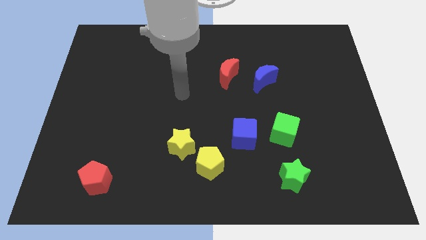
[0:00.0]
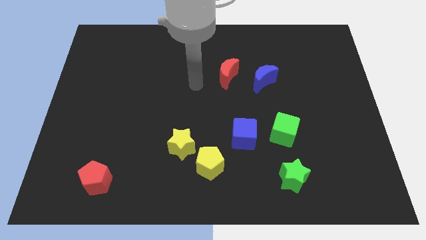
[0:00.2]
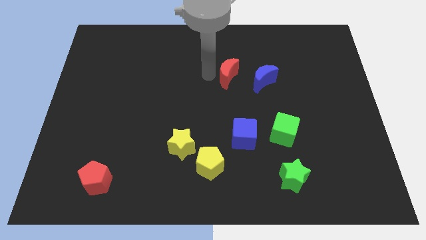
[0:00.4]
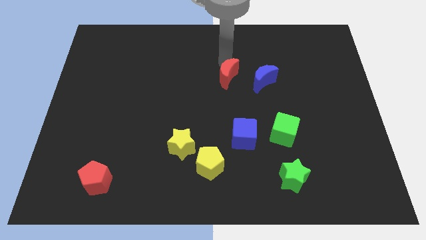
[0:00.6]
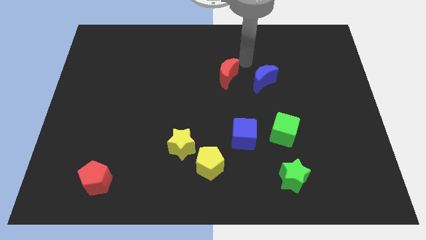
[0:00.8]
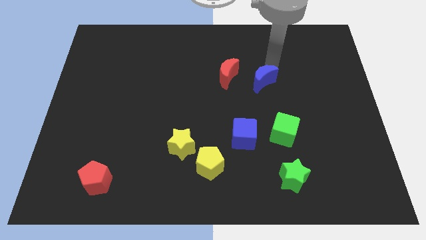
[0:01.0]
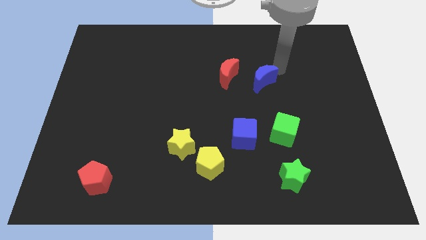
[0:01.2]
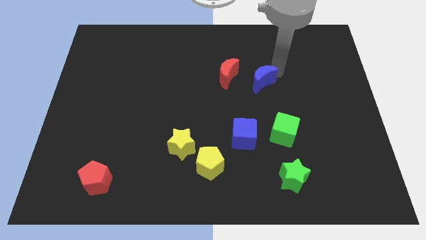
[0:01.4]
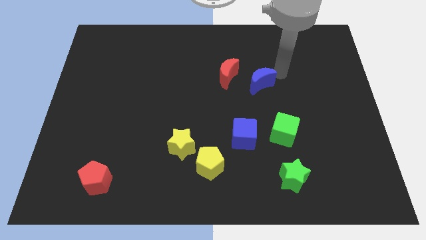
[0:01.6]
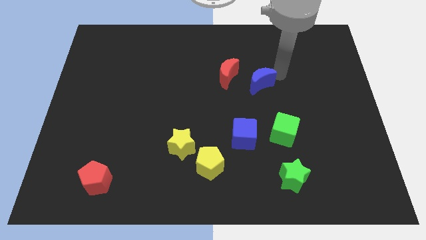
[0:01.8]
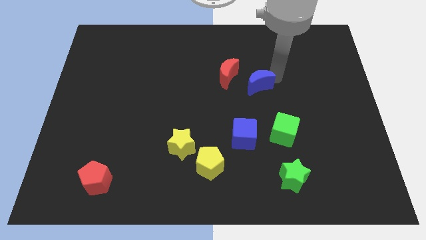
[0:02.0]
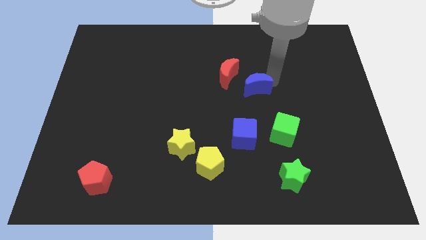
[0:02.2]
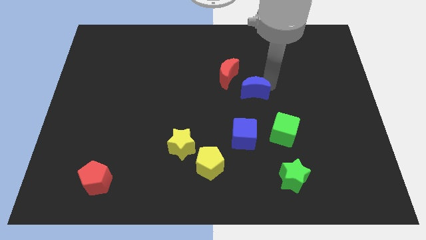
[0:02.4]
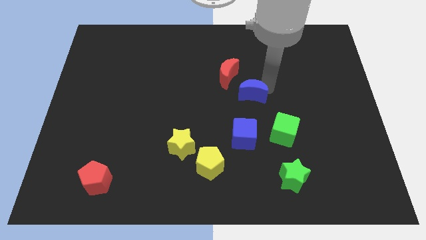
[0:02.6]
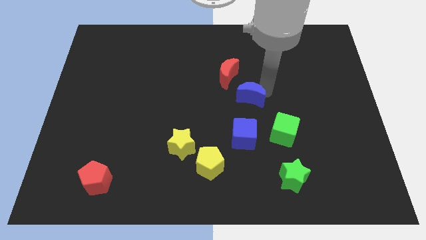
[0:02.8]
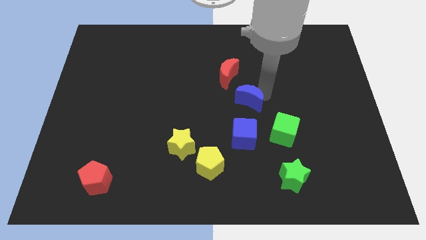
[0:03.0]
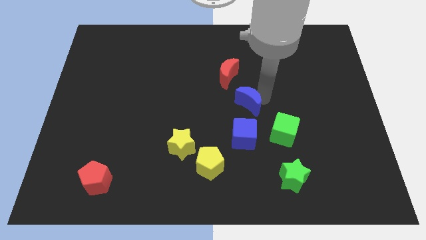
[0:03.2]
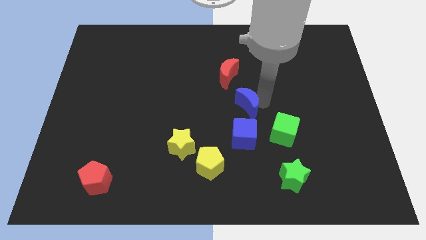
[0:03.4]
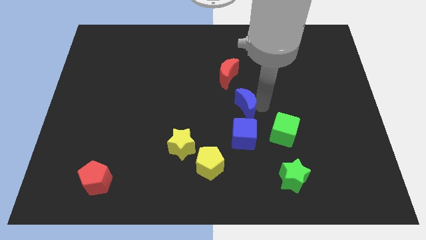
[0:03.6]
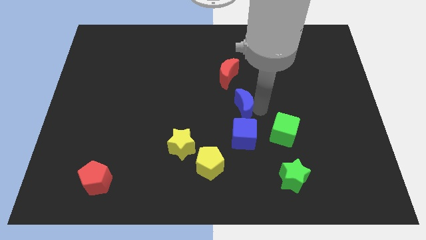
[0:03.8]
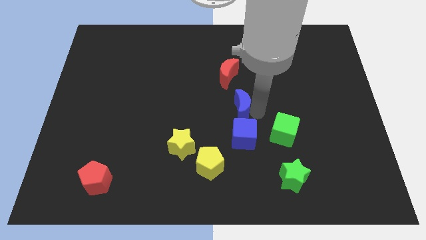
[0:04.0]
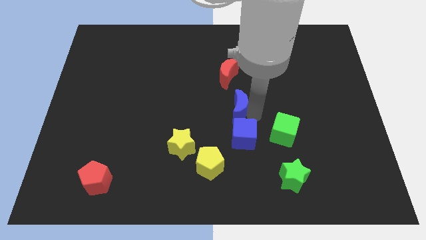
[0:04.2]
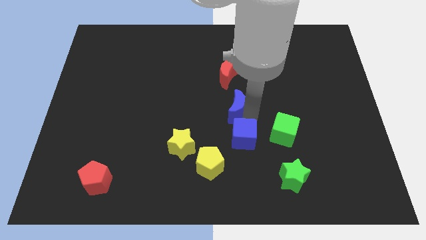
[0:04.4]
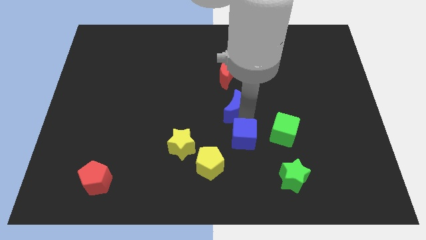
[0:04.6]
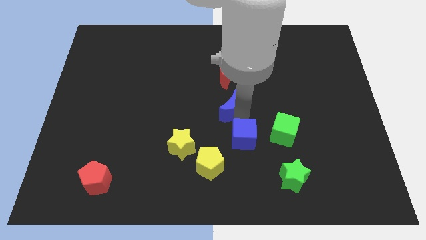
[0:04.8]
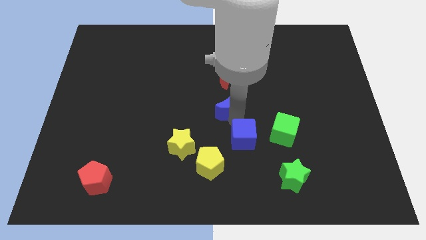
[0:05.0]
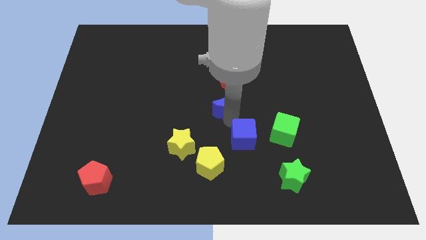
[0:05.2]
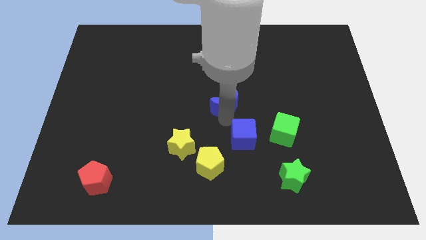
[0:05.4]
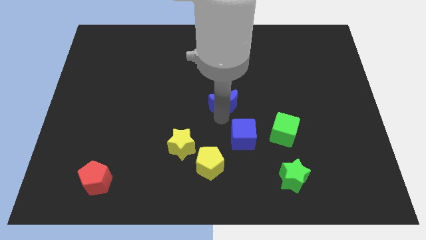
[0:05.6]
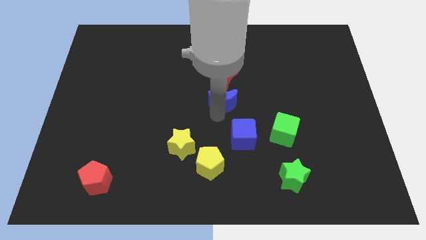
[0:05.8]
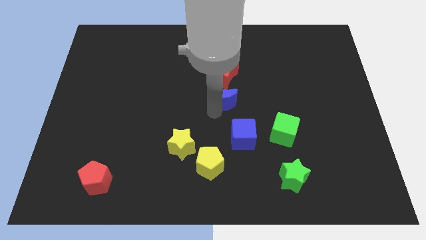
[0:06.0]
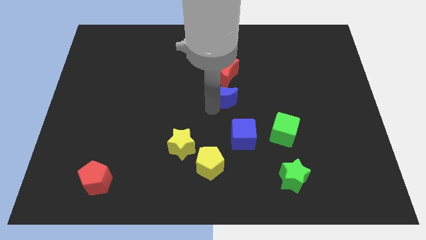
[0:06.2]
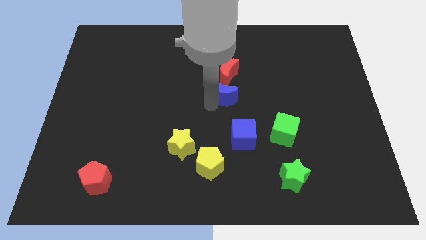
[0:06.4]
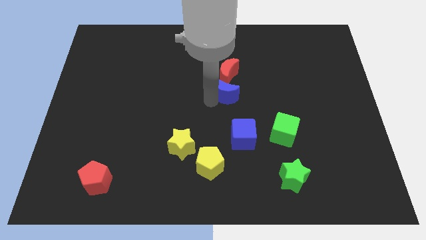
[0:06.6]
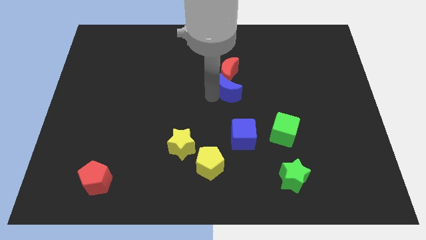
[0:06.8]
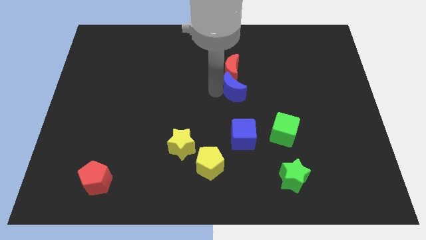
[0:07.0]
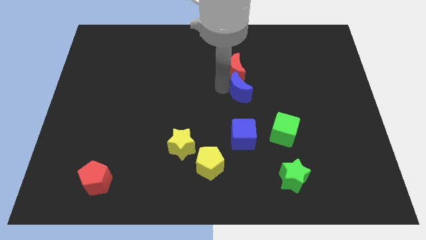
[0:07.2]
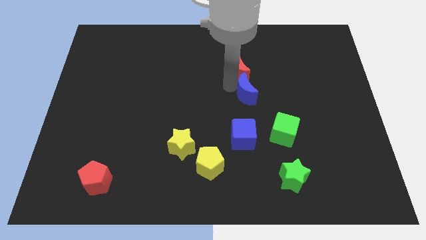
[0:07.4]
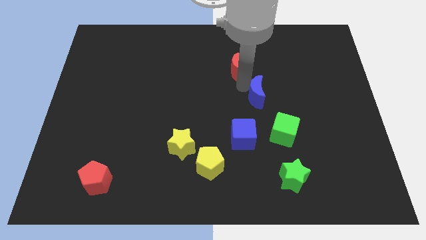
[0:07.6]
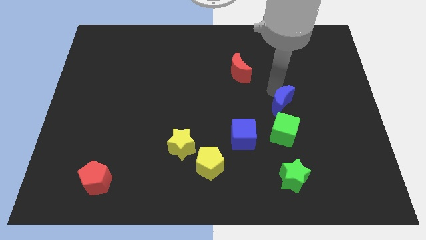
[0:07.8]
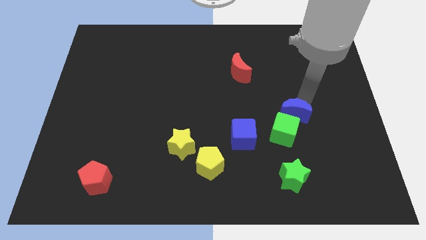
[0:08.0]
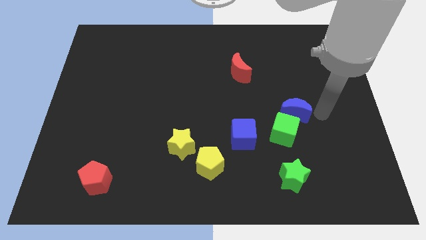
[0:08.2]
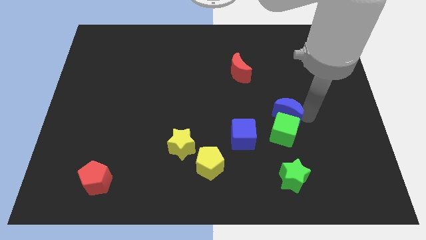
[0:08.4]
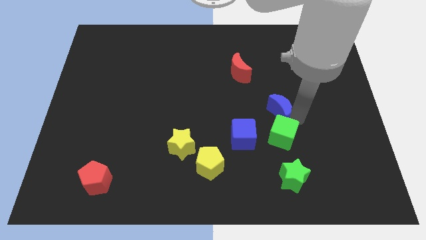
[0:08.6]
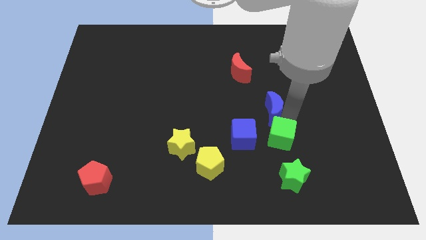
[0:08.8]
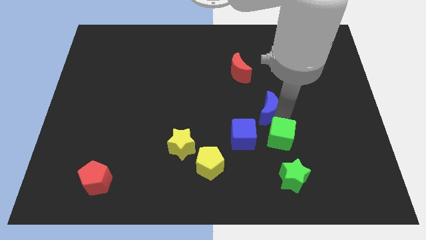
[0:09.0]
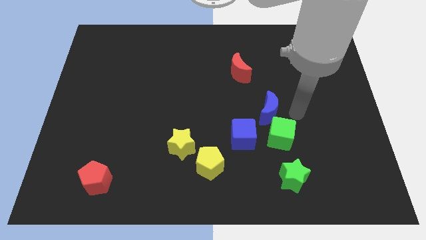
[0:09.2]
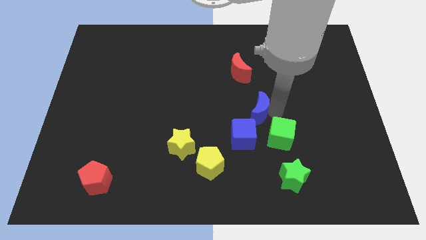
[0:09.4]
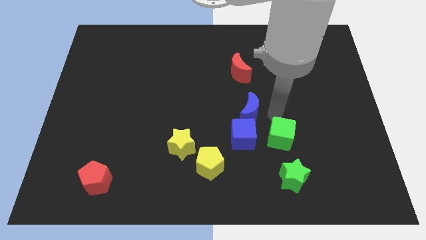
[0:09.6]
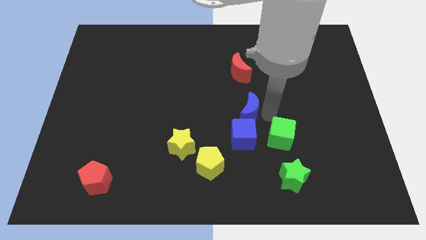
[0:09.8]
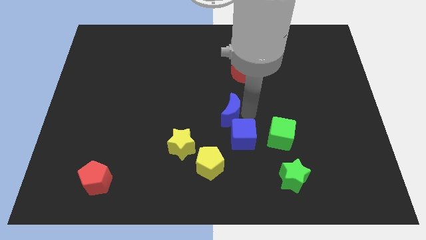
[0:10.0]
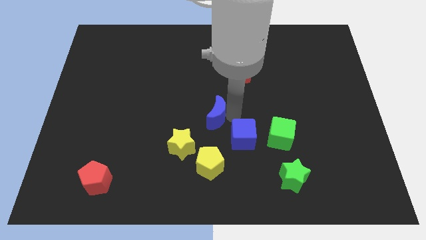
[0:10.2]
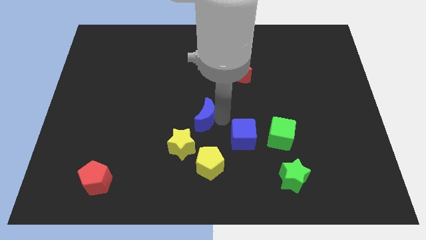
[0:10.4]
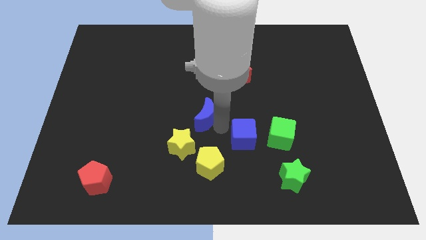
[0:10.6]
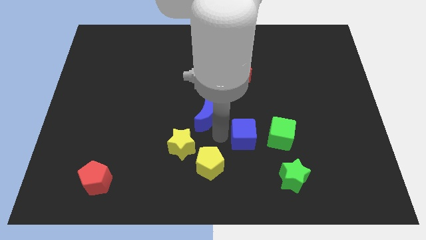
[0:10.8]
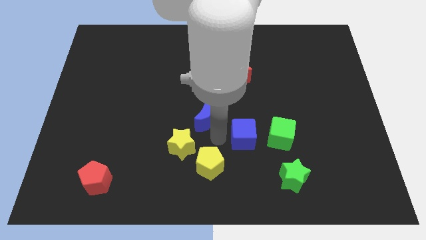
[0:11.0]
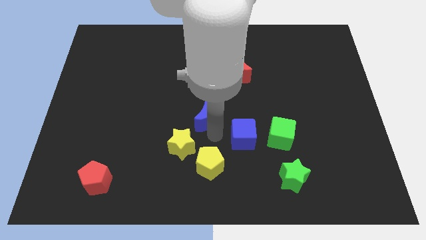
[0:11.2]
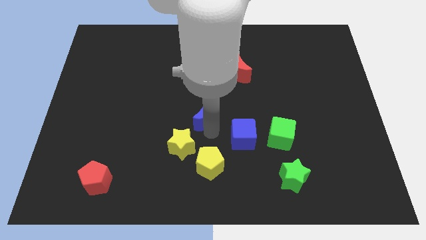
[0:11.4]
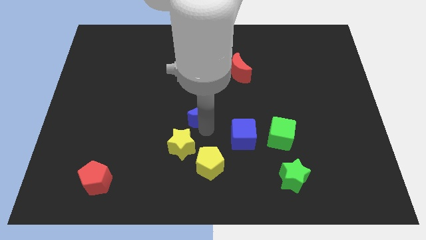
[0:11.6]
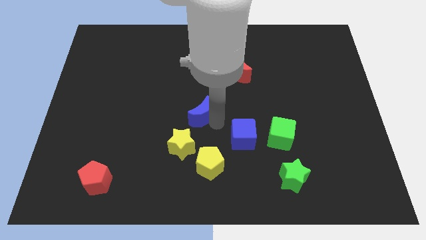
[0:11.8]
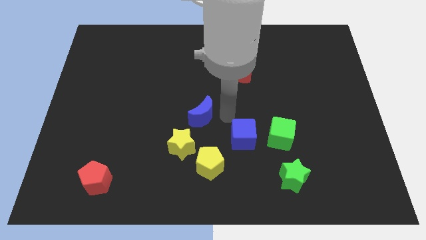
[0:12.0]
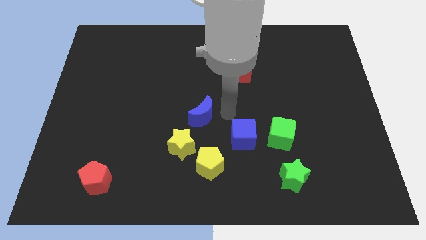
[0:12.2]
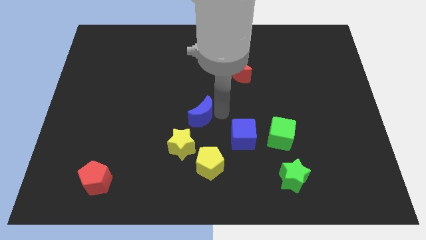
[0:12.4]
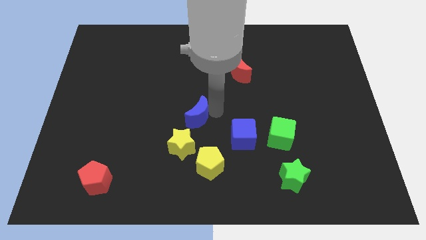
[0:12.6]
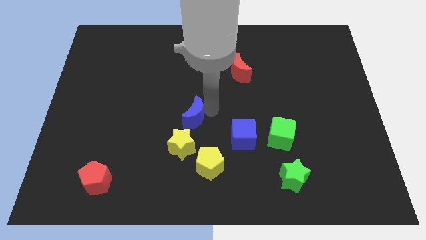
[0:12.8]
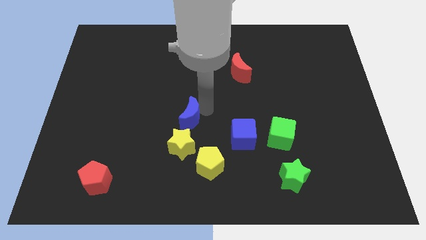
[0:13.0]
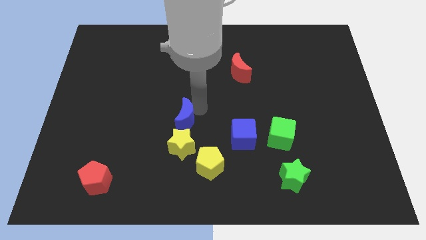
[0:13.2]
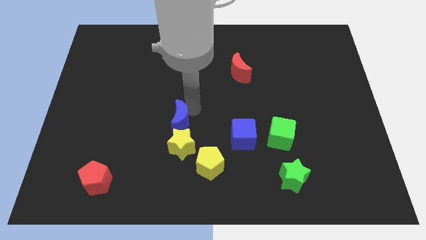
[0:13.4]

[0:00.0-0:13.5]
put the blue moon to the top left side of the yellow star

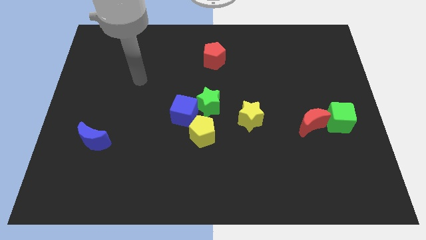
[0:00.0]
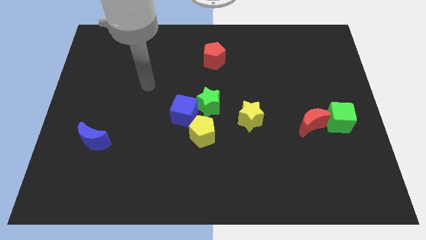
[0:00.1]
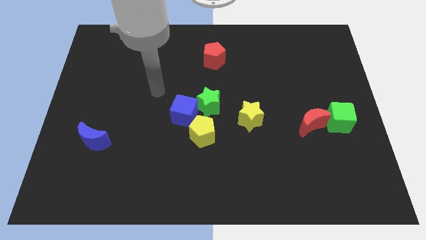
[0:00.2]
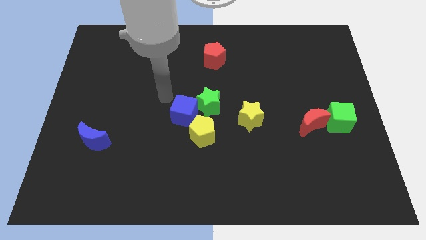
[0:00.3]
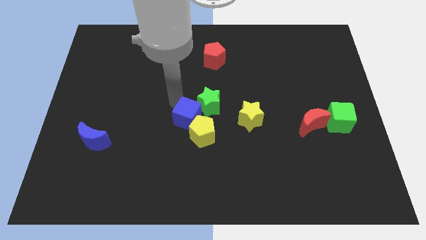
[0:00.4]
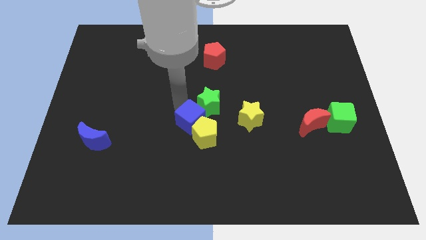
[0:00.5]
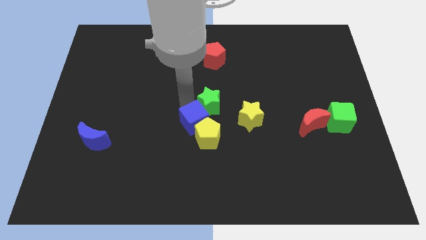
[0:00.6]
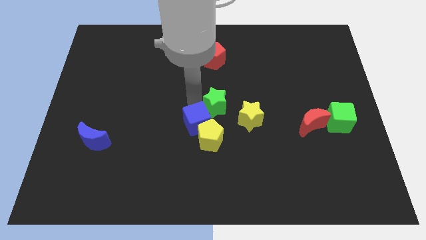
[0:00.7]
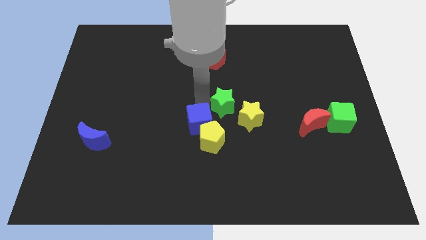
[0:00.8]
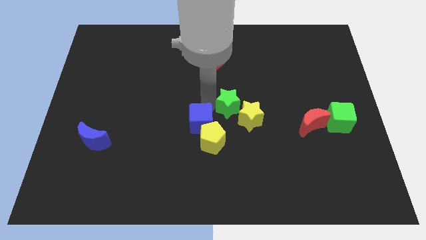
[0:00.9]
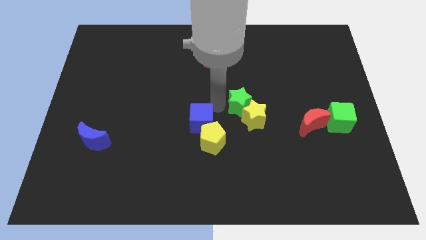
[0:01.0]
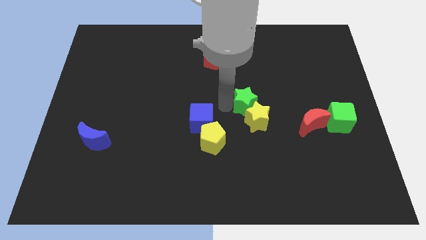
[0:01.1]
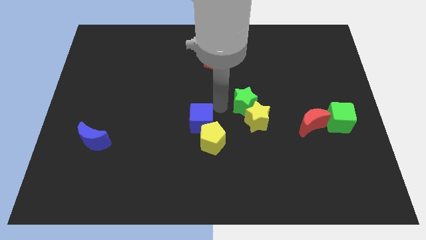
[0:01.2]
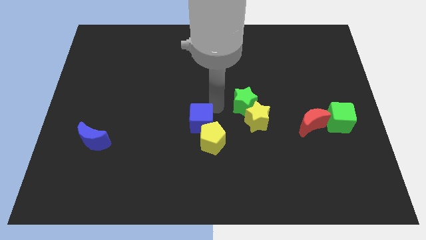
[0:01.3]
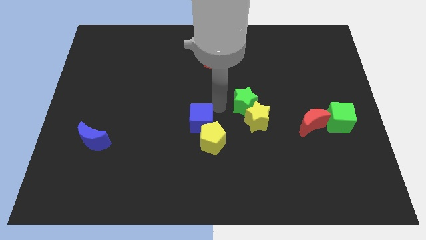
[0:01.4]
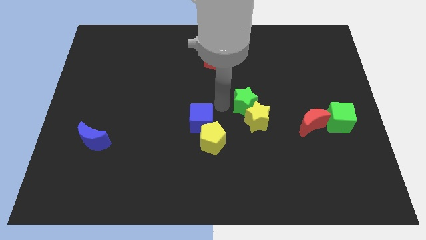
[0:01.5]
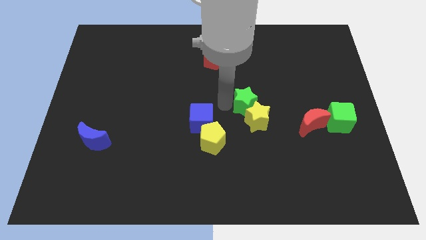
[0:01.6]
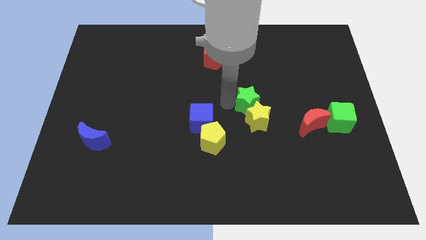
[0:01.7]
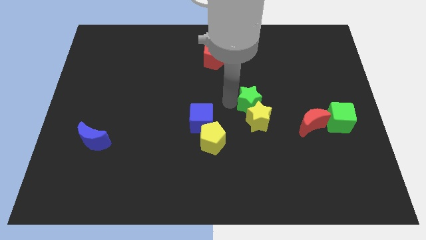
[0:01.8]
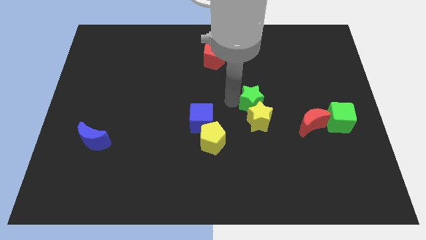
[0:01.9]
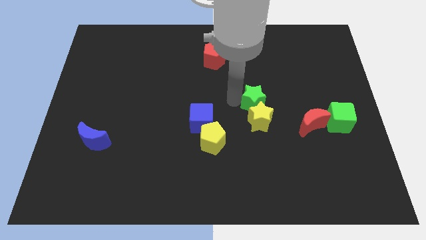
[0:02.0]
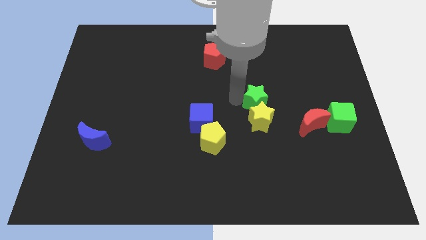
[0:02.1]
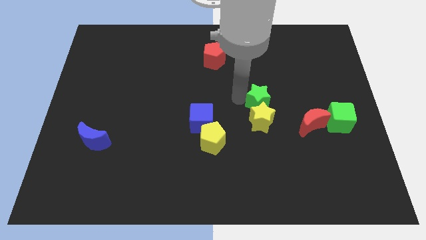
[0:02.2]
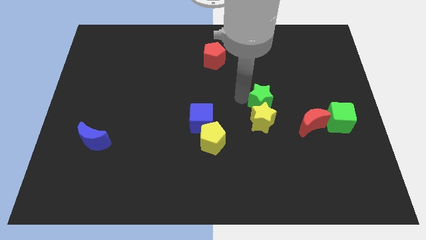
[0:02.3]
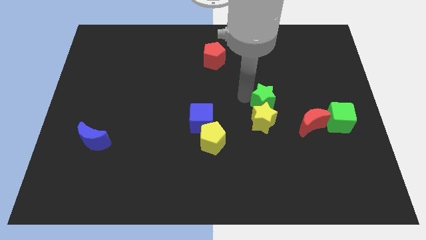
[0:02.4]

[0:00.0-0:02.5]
push the green star to the top left side of the red moon
